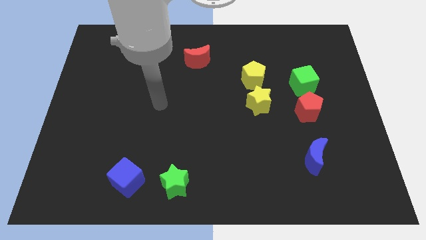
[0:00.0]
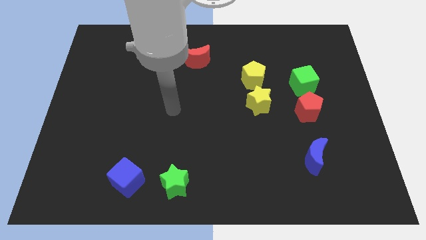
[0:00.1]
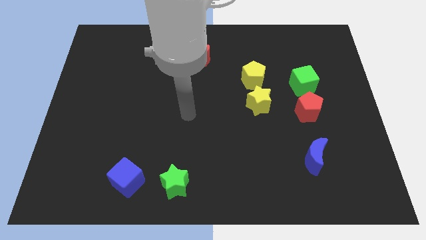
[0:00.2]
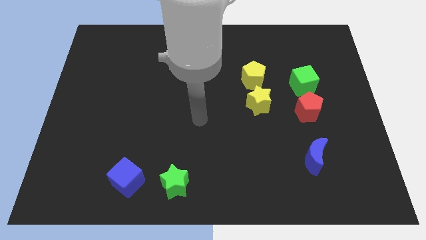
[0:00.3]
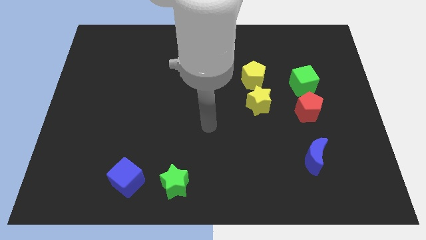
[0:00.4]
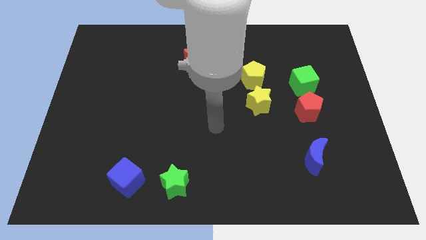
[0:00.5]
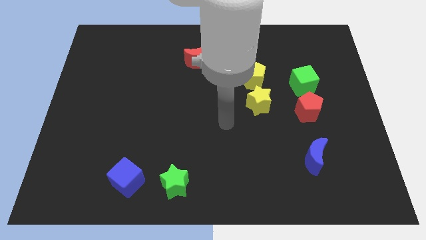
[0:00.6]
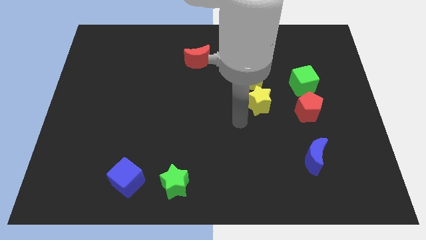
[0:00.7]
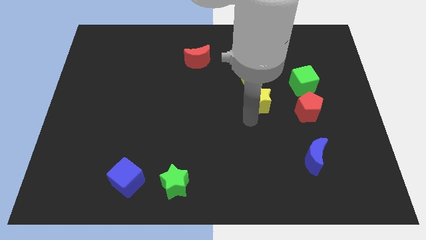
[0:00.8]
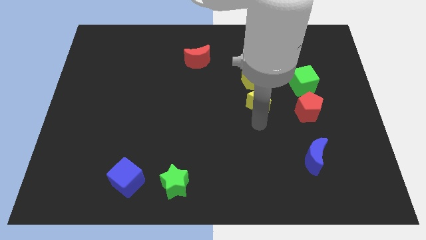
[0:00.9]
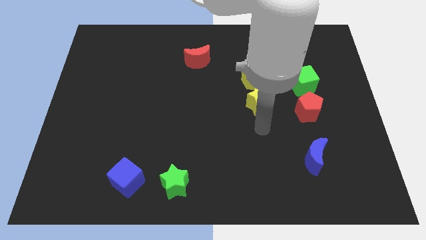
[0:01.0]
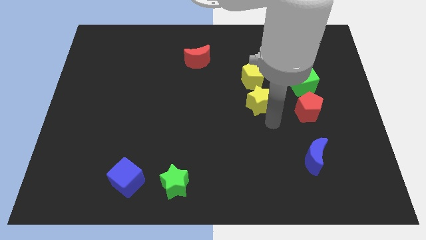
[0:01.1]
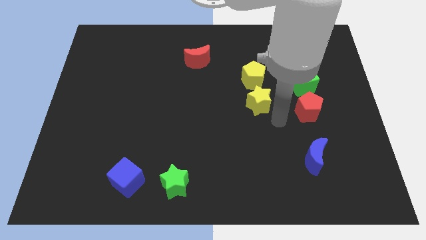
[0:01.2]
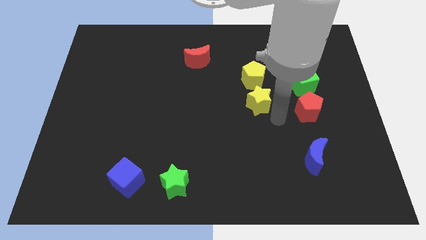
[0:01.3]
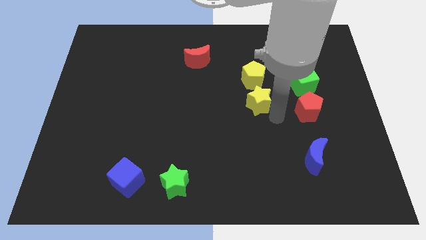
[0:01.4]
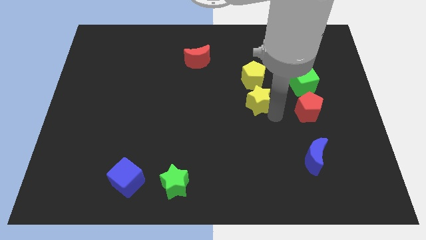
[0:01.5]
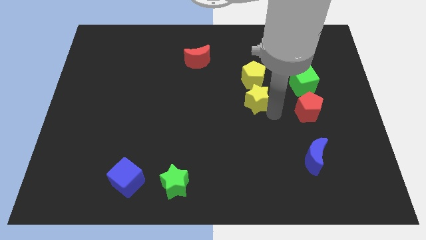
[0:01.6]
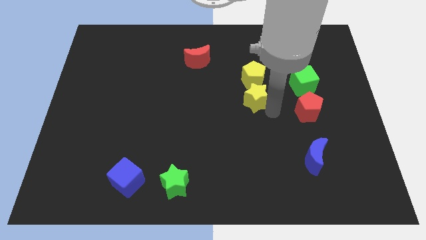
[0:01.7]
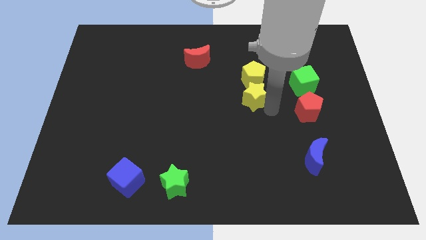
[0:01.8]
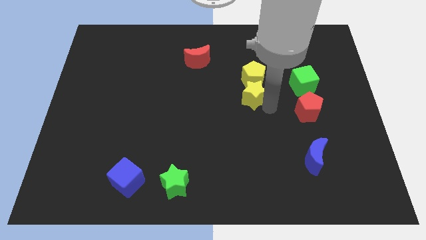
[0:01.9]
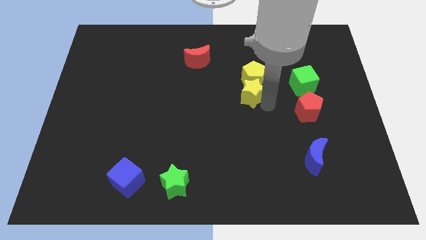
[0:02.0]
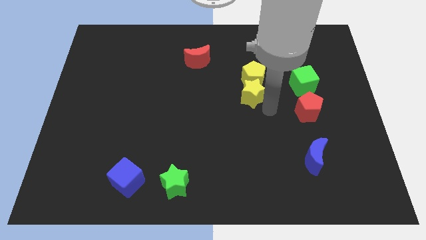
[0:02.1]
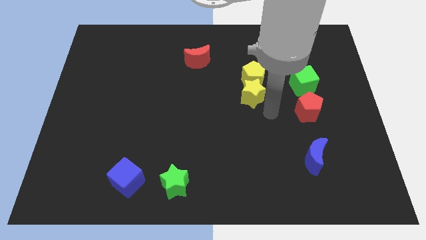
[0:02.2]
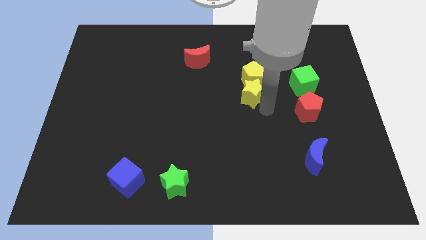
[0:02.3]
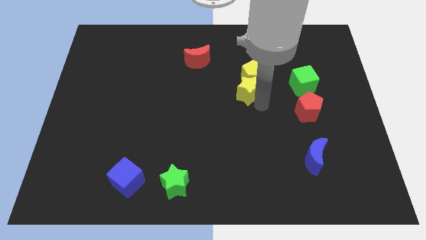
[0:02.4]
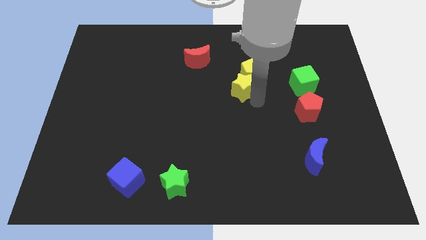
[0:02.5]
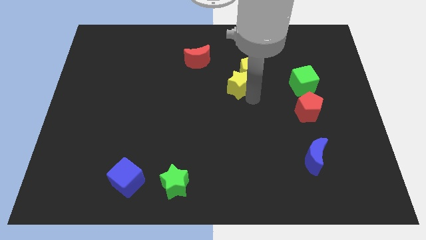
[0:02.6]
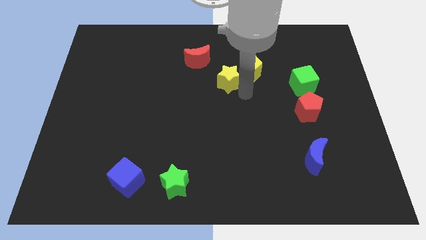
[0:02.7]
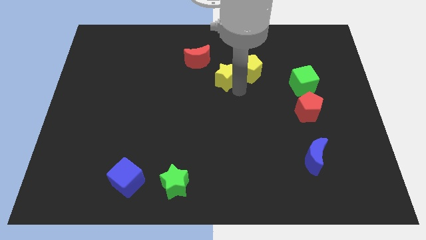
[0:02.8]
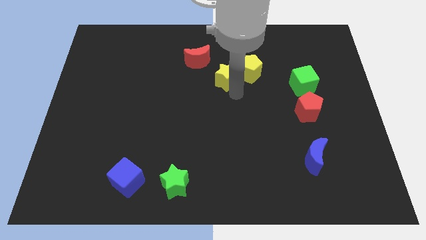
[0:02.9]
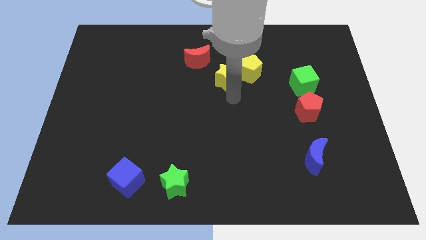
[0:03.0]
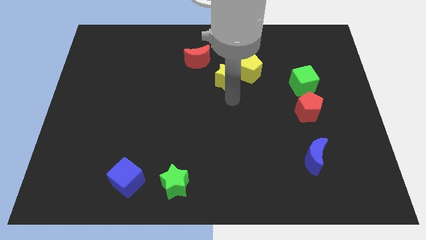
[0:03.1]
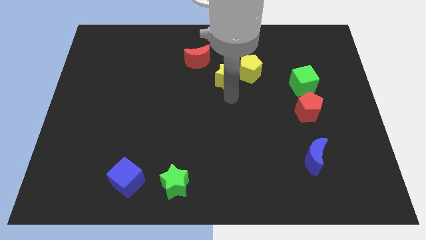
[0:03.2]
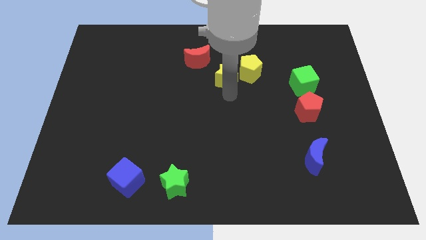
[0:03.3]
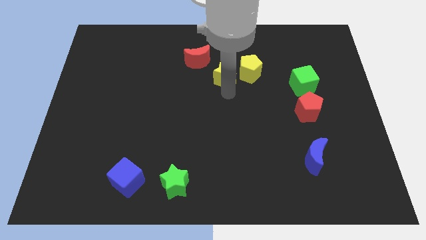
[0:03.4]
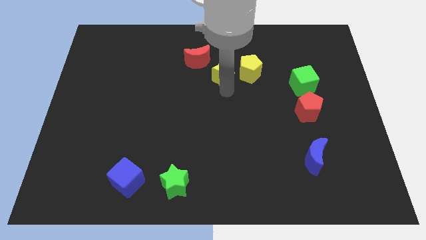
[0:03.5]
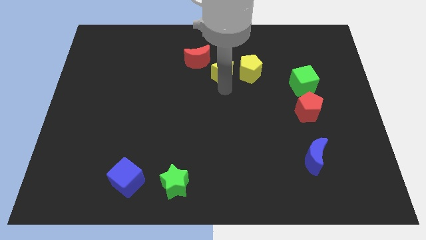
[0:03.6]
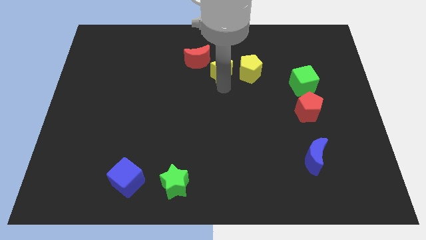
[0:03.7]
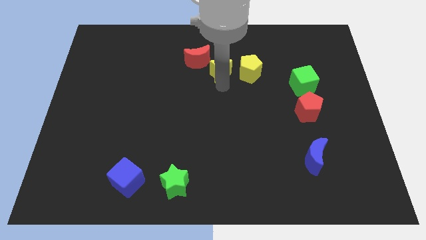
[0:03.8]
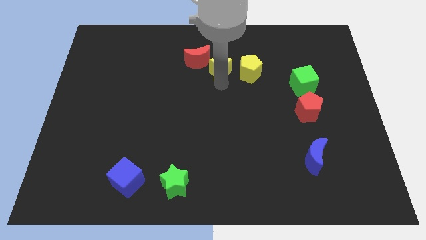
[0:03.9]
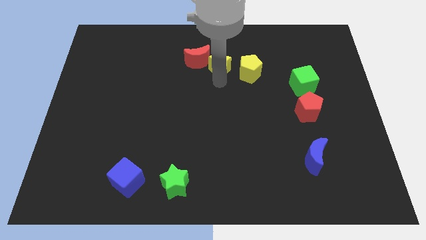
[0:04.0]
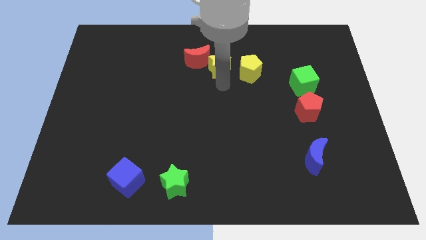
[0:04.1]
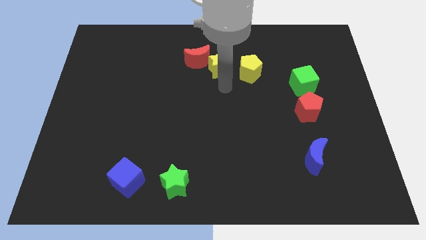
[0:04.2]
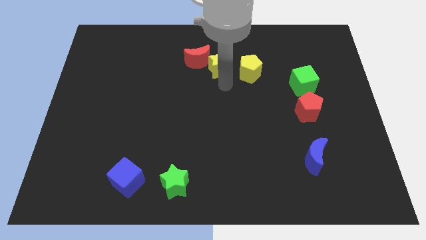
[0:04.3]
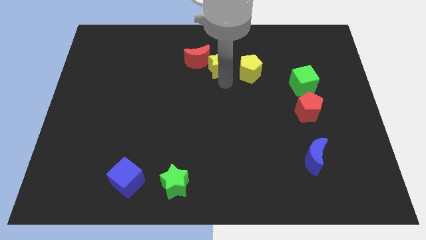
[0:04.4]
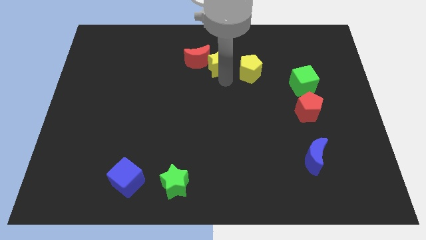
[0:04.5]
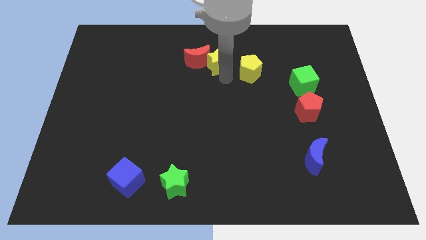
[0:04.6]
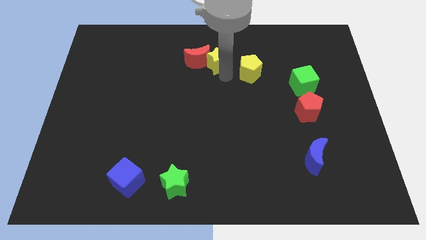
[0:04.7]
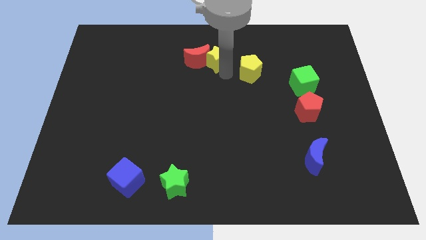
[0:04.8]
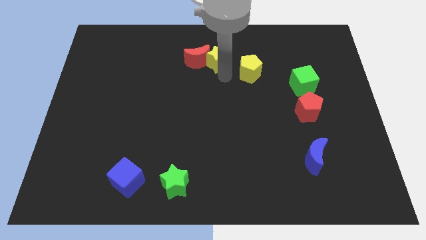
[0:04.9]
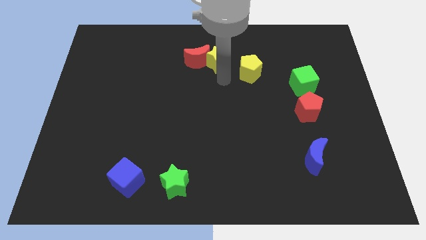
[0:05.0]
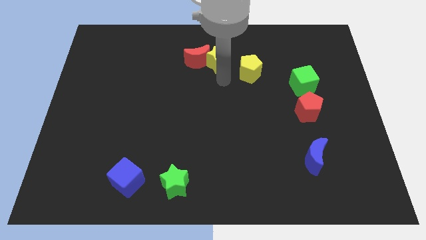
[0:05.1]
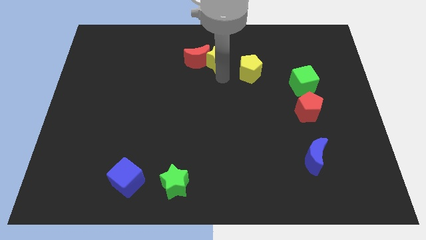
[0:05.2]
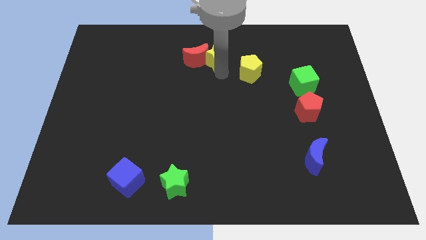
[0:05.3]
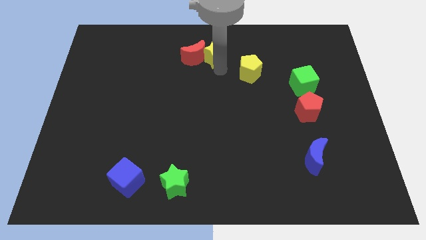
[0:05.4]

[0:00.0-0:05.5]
put the yellow star to the top side
